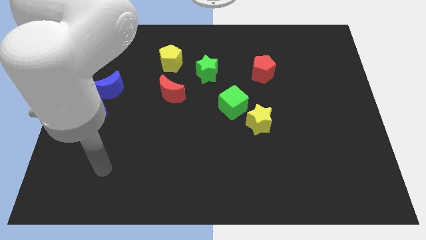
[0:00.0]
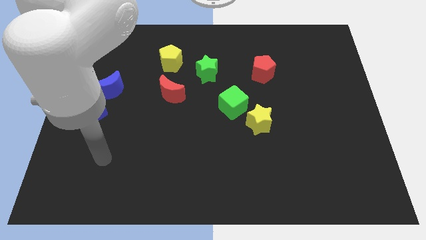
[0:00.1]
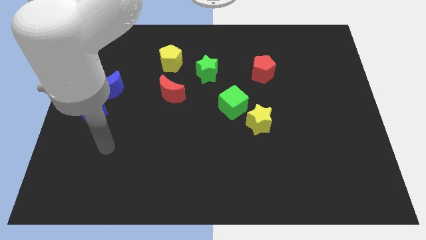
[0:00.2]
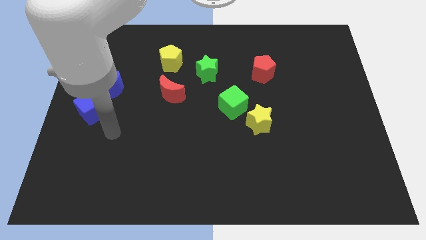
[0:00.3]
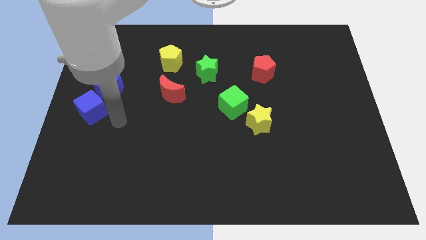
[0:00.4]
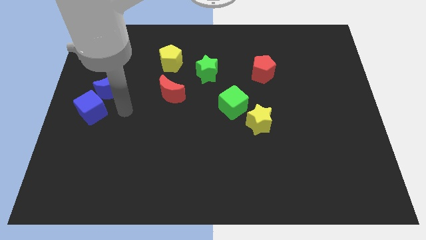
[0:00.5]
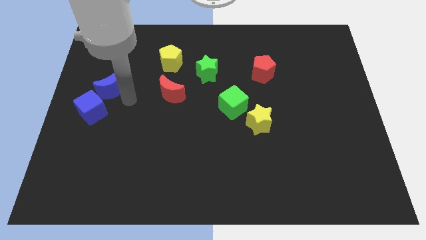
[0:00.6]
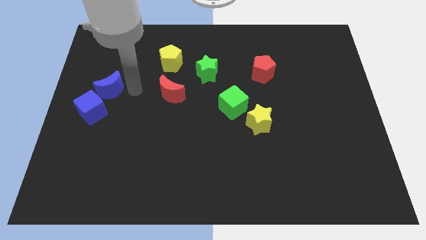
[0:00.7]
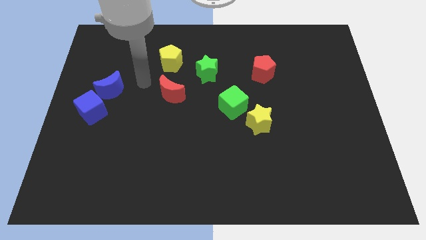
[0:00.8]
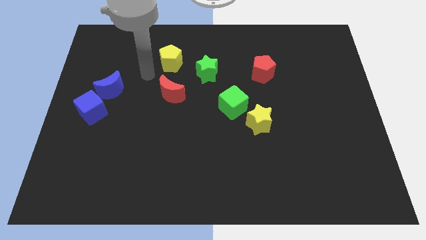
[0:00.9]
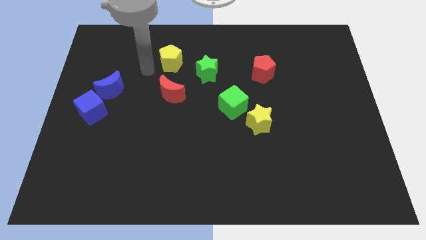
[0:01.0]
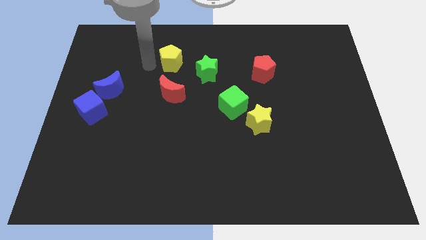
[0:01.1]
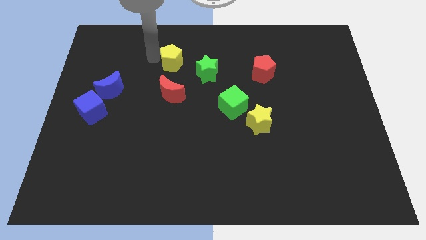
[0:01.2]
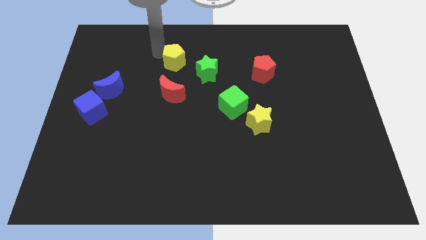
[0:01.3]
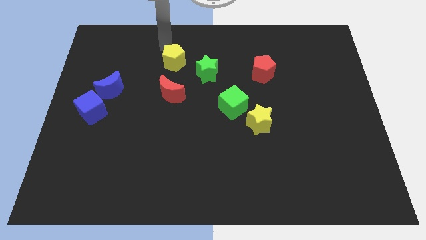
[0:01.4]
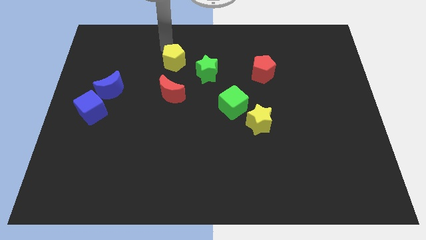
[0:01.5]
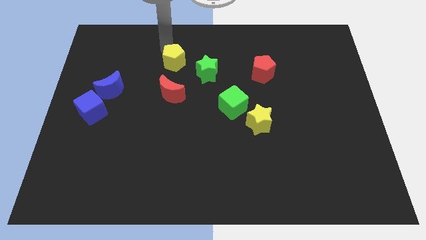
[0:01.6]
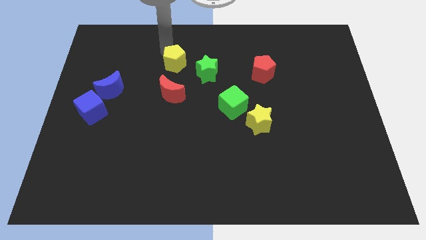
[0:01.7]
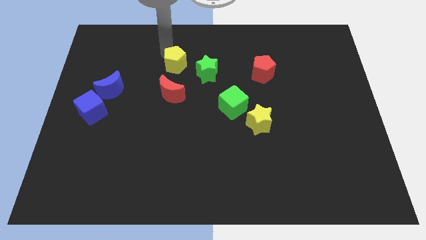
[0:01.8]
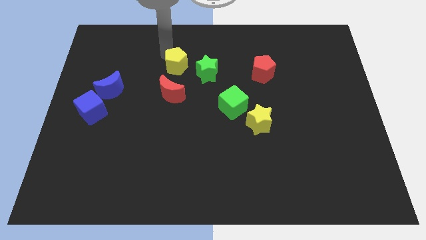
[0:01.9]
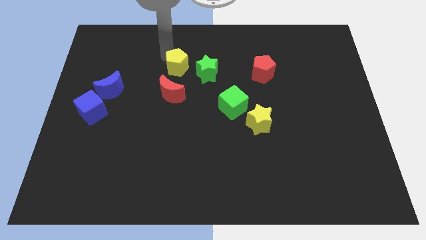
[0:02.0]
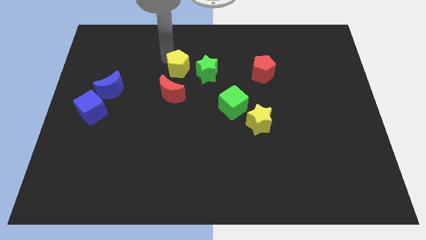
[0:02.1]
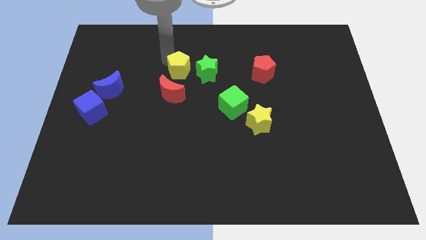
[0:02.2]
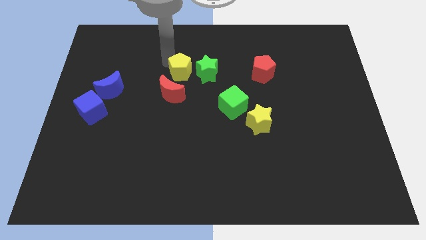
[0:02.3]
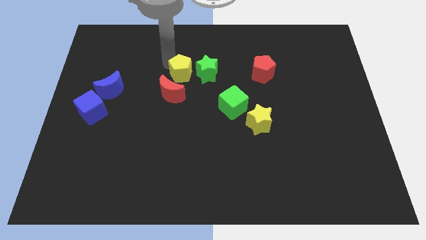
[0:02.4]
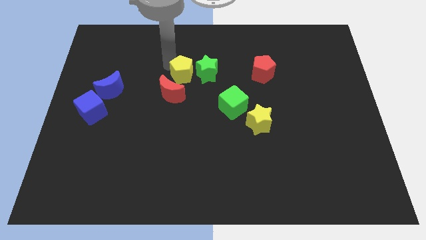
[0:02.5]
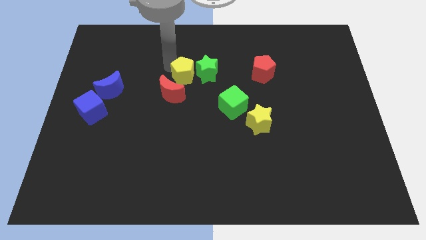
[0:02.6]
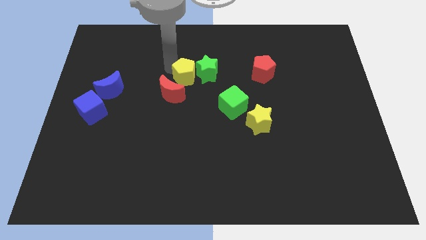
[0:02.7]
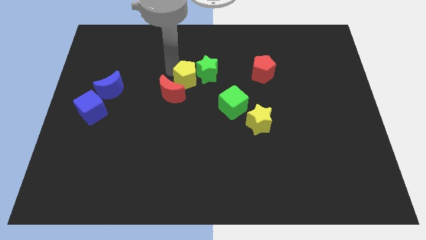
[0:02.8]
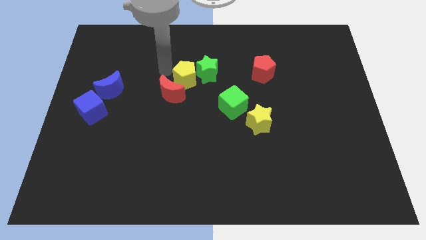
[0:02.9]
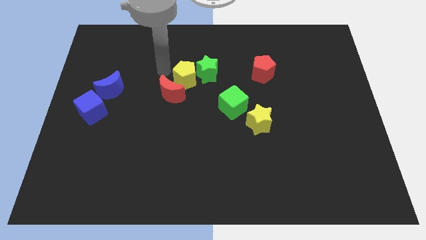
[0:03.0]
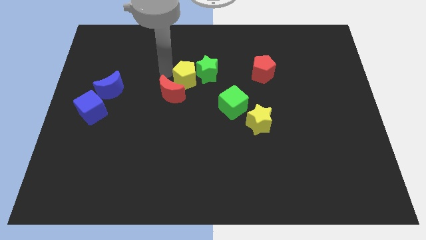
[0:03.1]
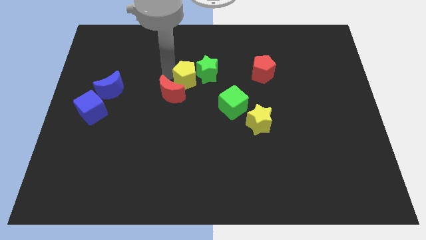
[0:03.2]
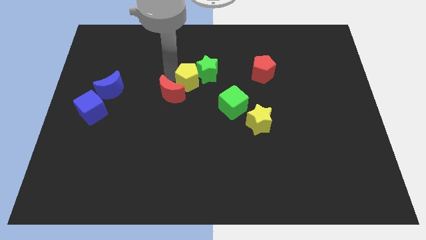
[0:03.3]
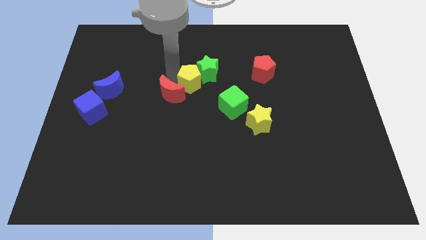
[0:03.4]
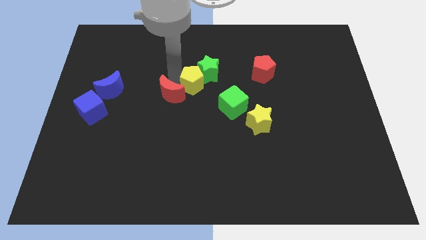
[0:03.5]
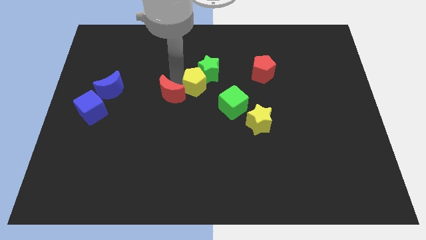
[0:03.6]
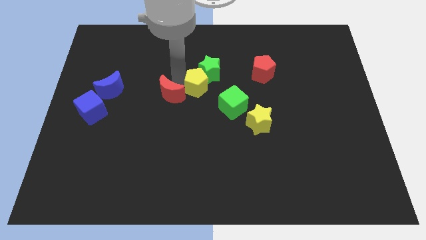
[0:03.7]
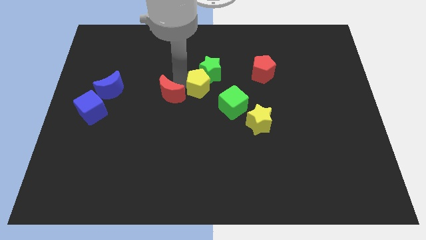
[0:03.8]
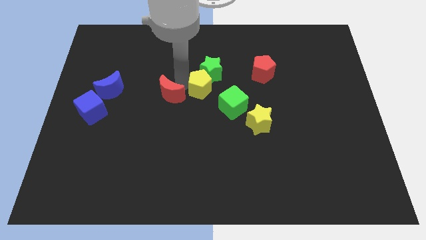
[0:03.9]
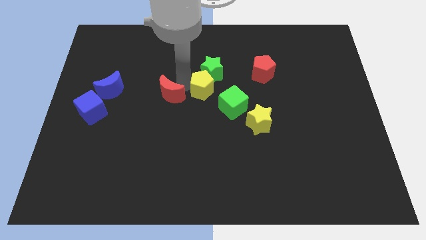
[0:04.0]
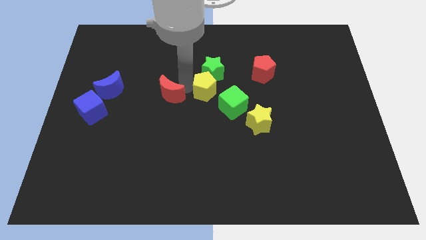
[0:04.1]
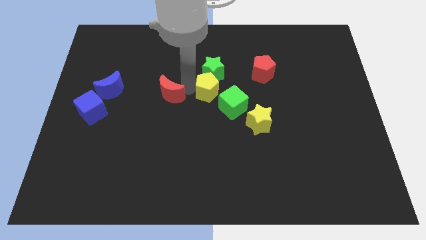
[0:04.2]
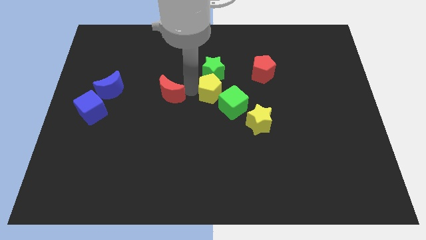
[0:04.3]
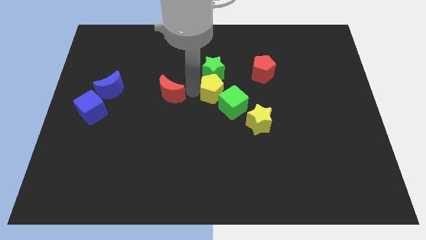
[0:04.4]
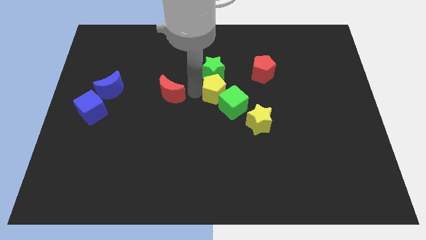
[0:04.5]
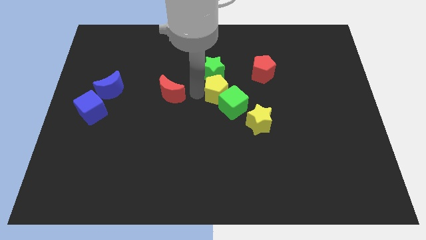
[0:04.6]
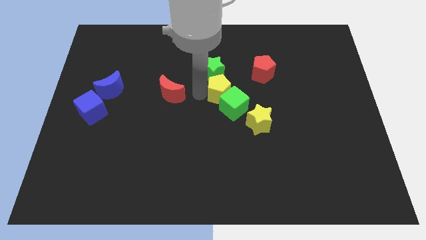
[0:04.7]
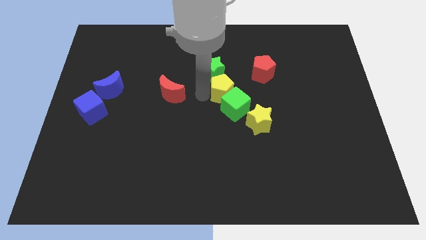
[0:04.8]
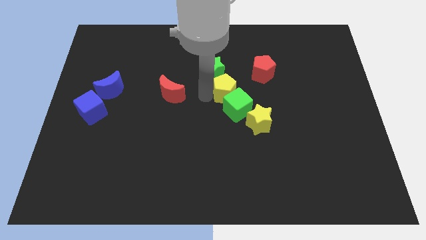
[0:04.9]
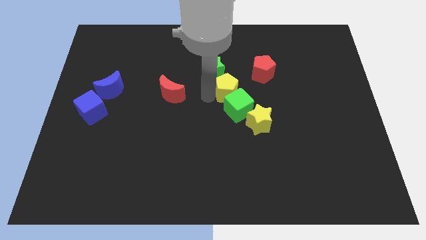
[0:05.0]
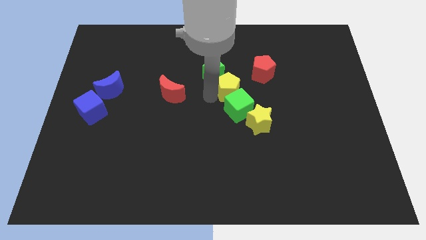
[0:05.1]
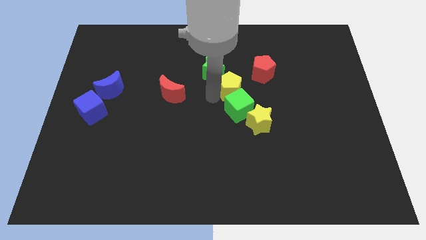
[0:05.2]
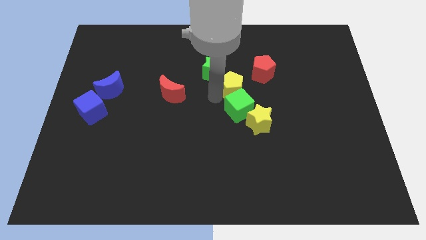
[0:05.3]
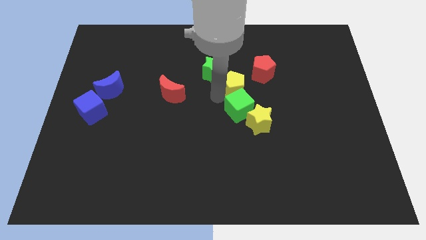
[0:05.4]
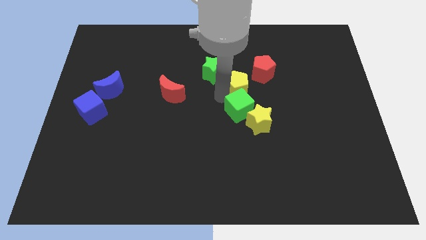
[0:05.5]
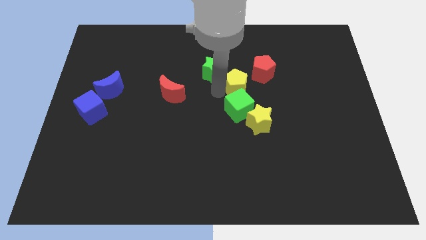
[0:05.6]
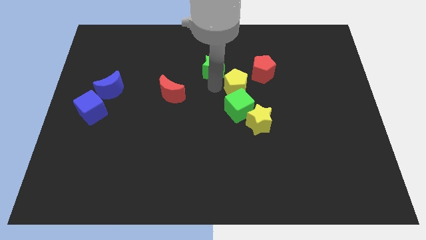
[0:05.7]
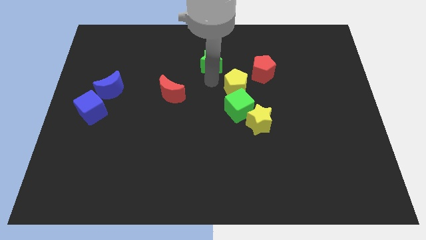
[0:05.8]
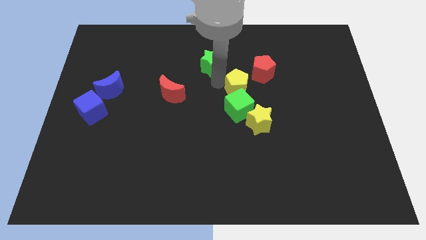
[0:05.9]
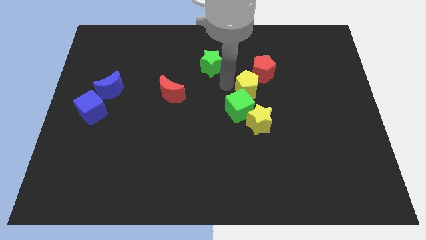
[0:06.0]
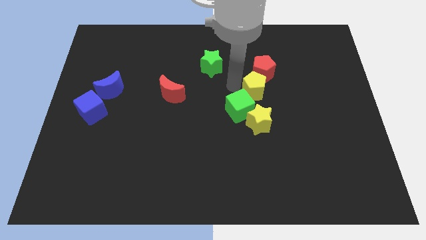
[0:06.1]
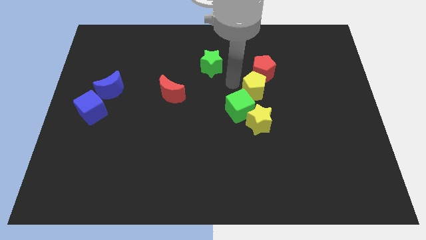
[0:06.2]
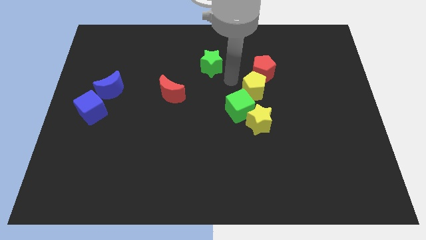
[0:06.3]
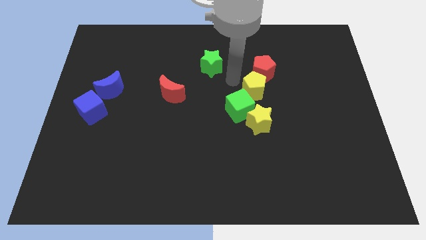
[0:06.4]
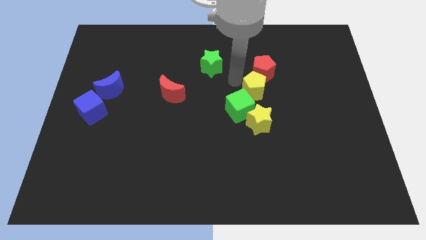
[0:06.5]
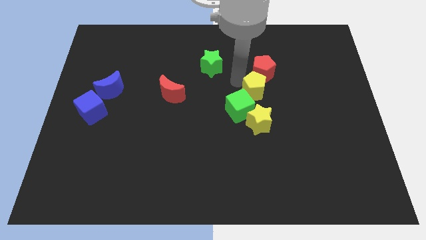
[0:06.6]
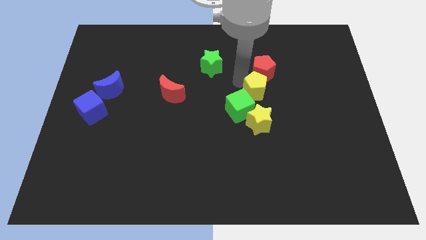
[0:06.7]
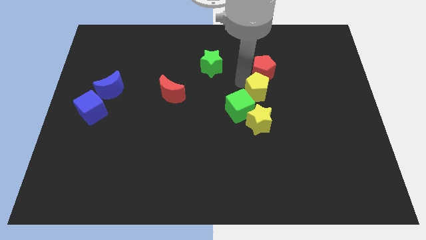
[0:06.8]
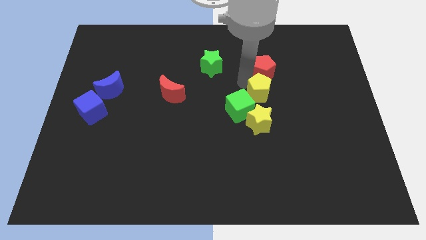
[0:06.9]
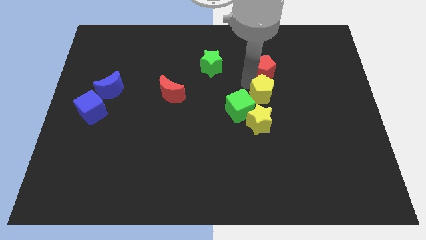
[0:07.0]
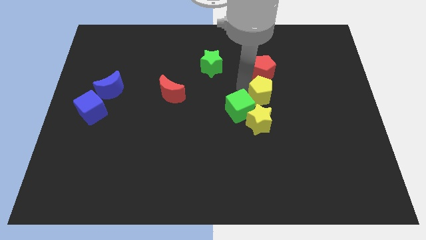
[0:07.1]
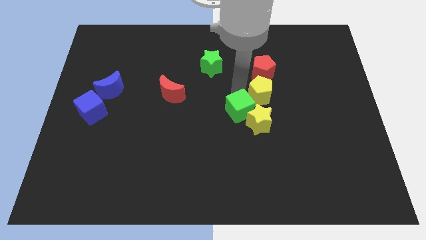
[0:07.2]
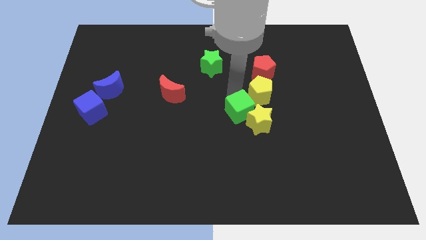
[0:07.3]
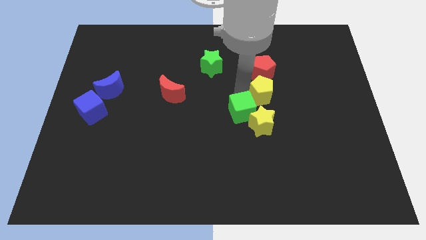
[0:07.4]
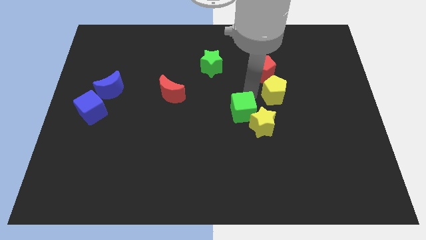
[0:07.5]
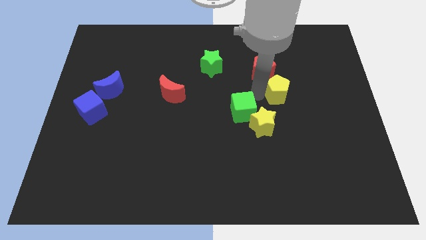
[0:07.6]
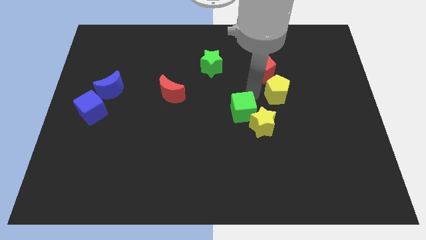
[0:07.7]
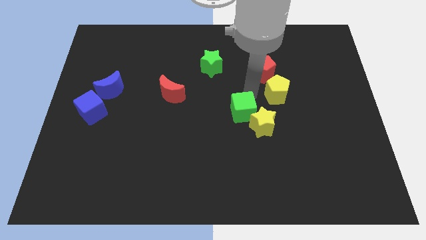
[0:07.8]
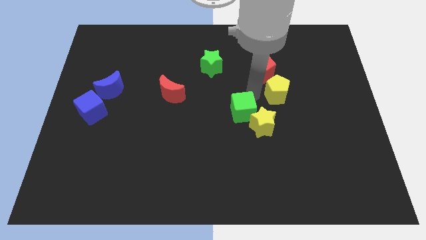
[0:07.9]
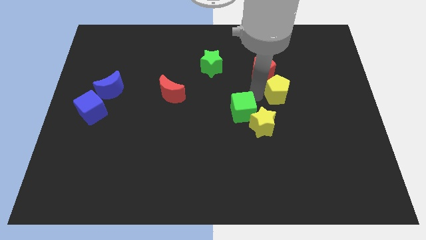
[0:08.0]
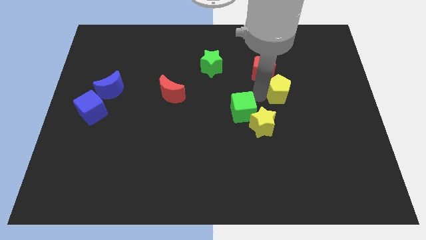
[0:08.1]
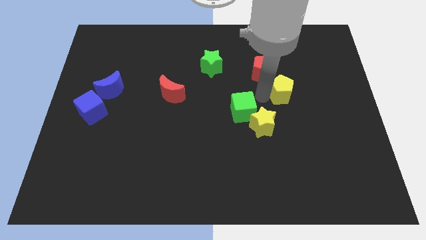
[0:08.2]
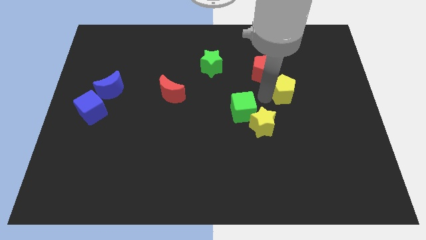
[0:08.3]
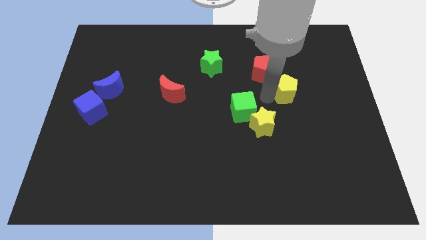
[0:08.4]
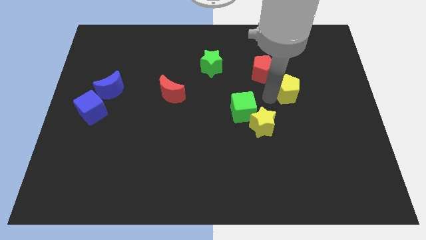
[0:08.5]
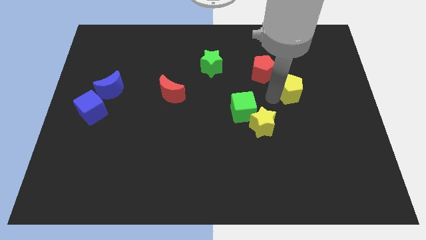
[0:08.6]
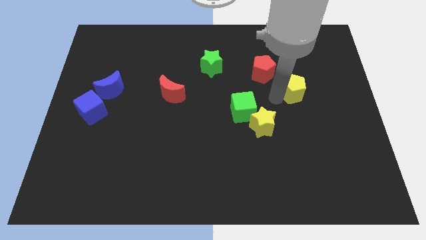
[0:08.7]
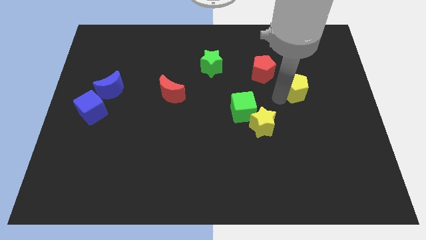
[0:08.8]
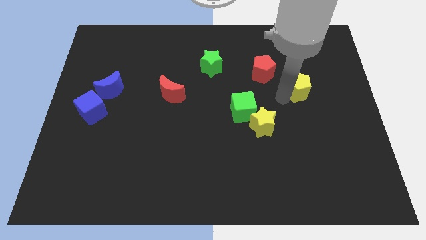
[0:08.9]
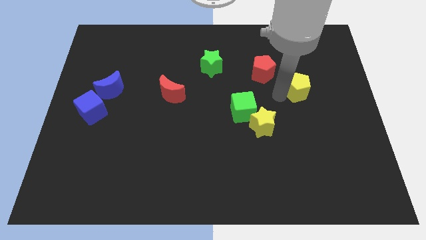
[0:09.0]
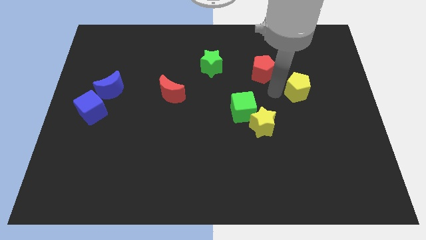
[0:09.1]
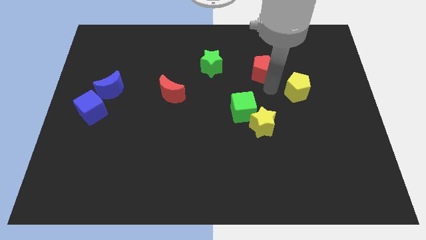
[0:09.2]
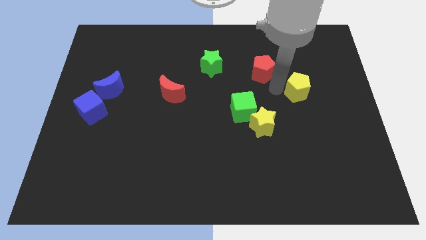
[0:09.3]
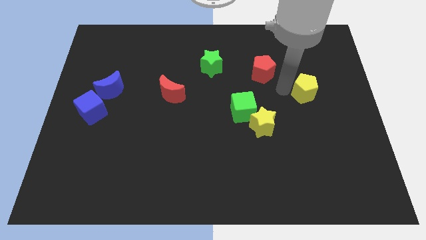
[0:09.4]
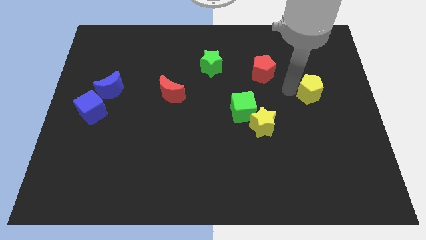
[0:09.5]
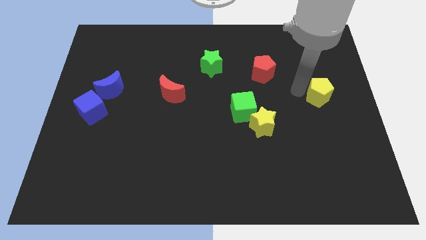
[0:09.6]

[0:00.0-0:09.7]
push the yellow pentagon to the center right
